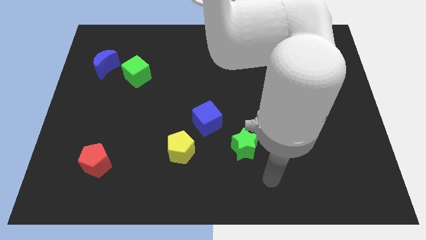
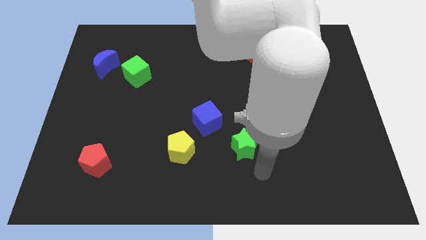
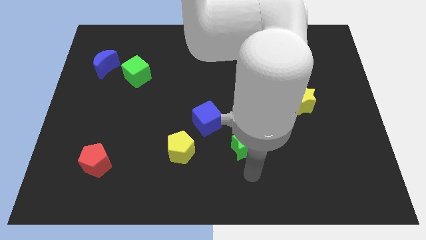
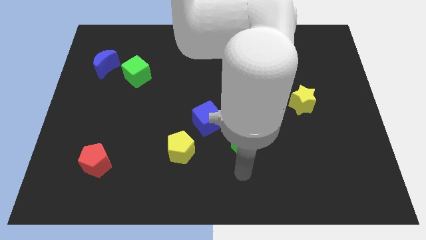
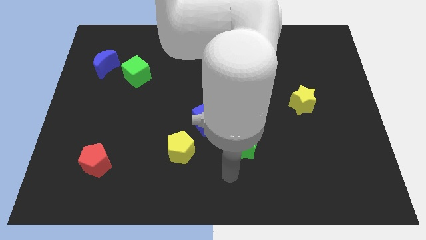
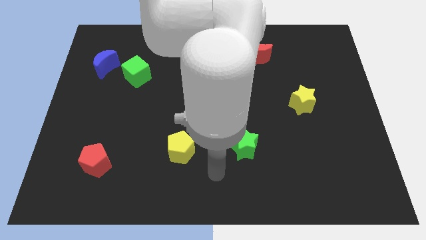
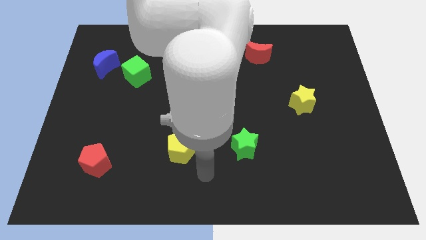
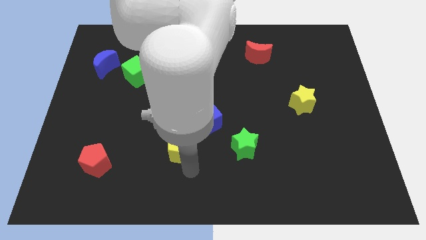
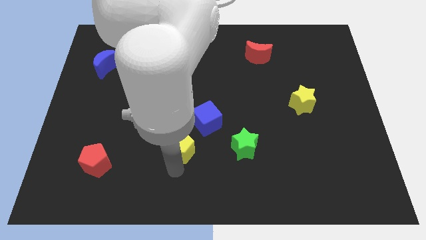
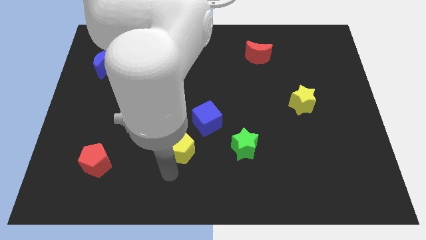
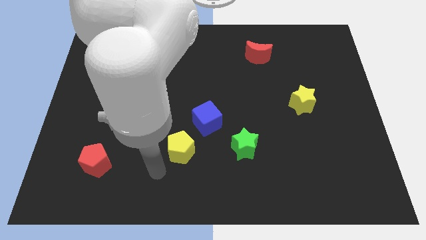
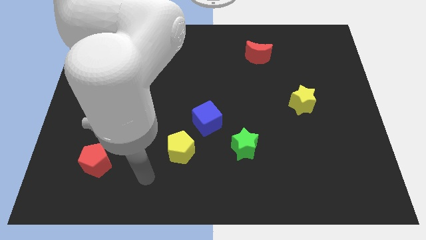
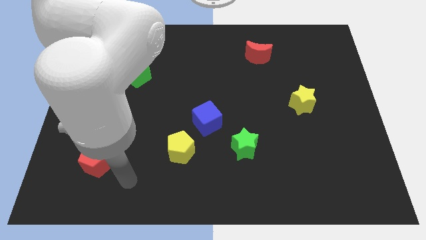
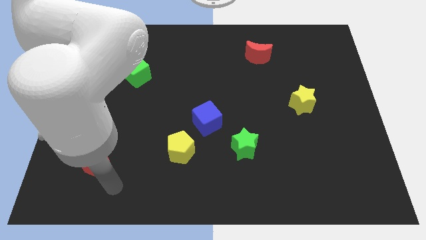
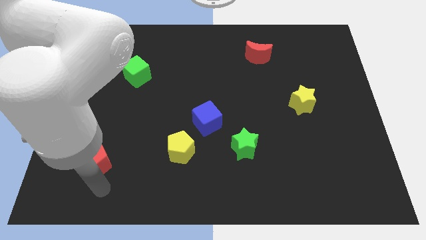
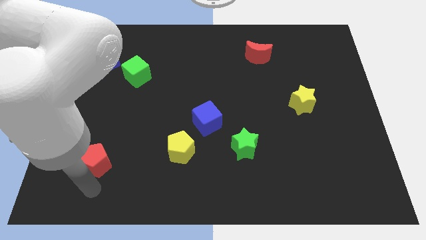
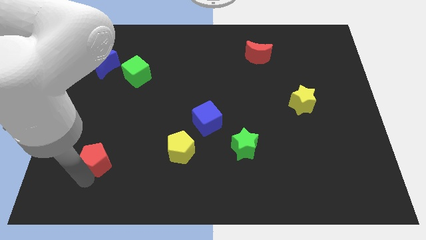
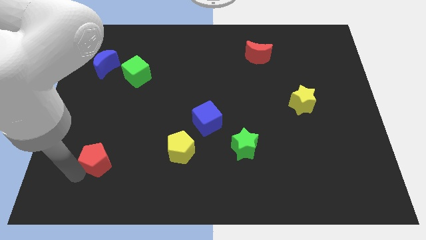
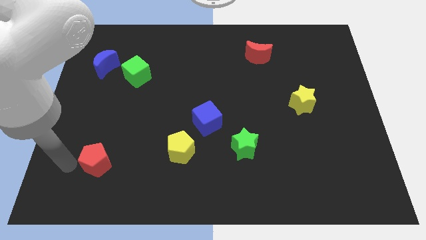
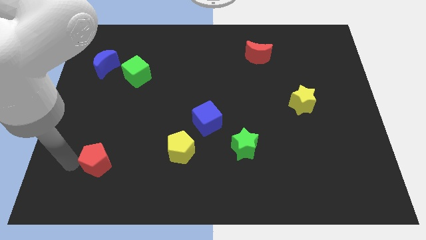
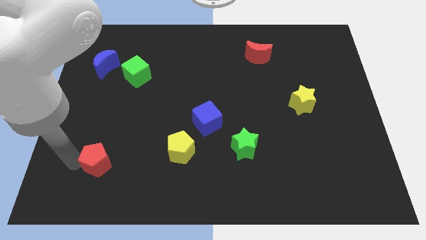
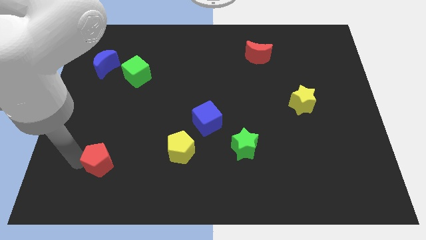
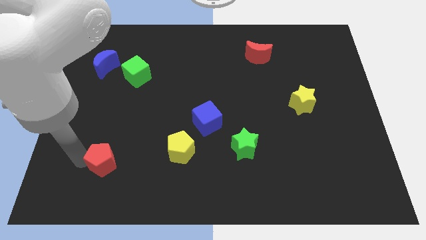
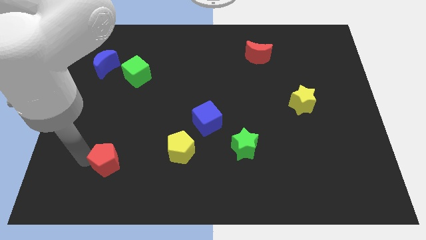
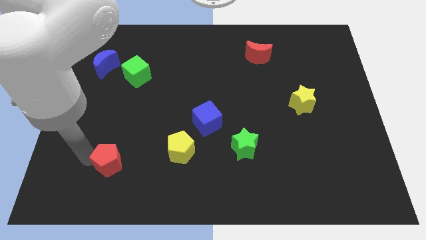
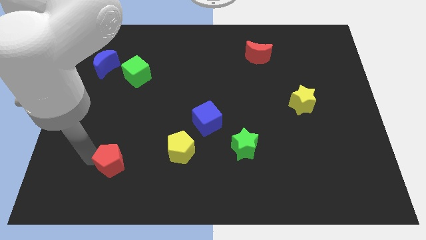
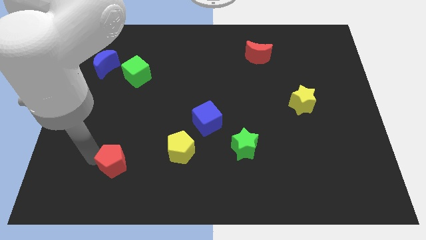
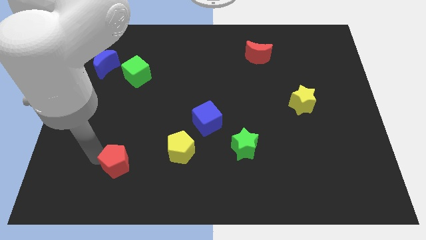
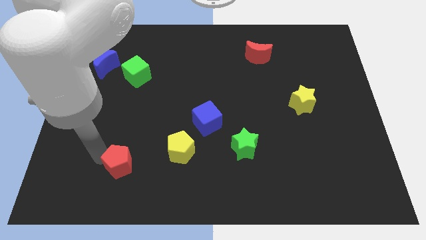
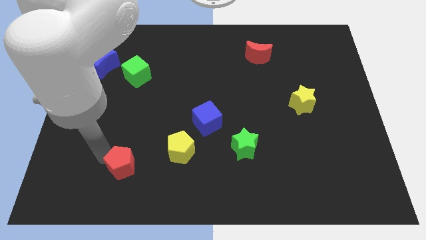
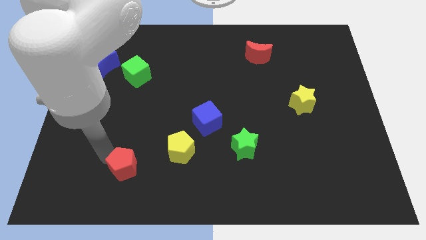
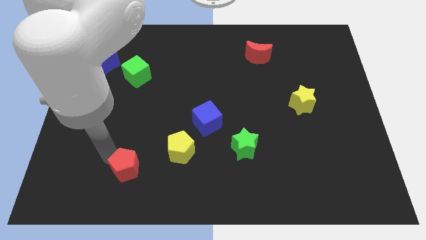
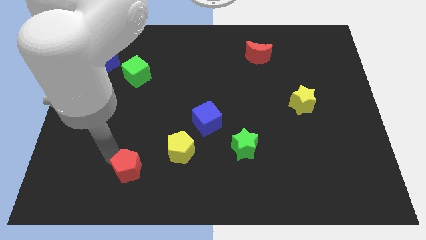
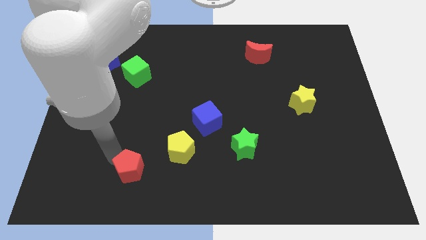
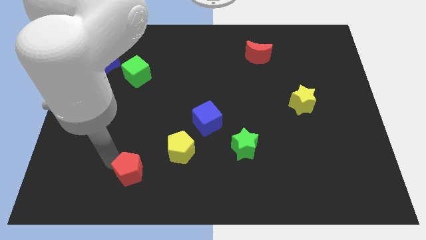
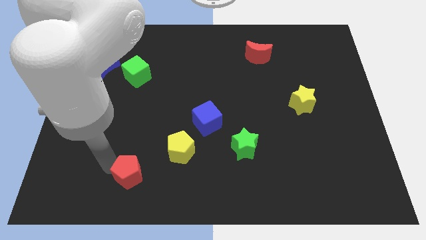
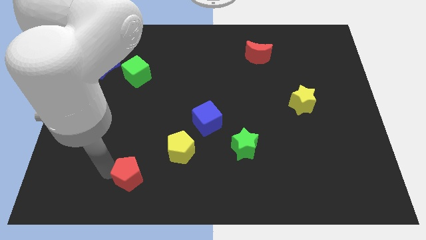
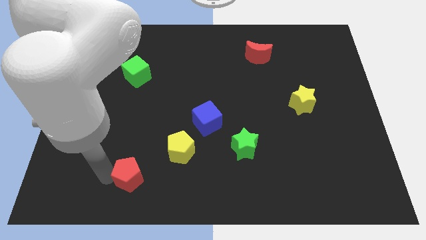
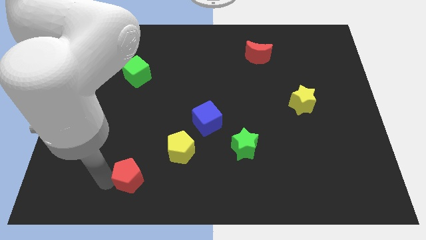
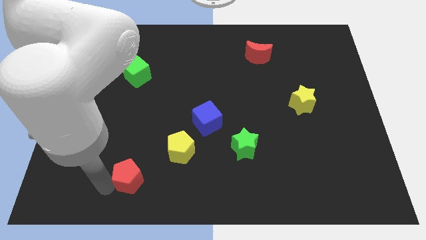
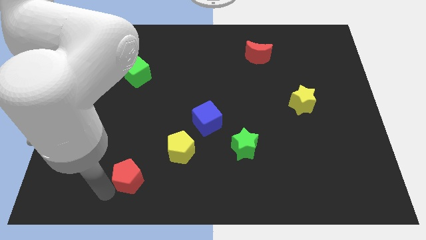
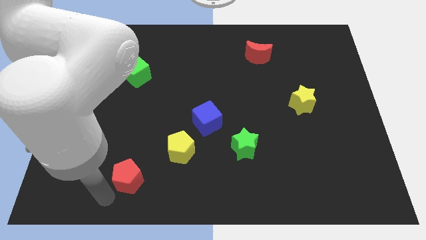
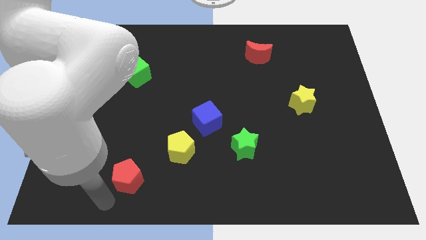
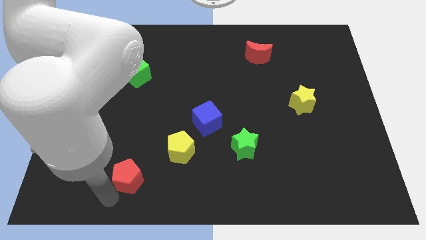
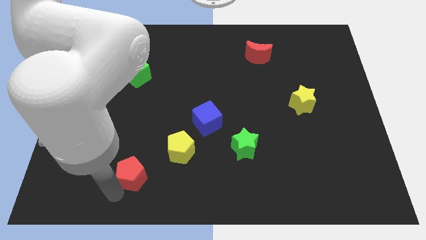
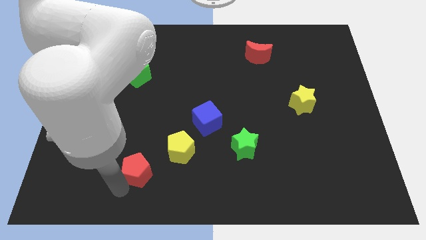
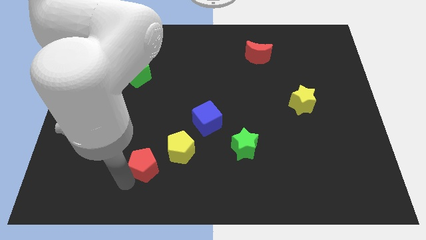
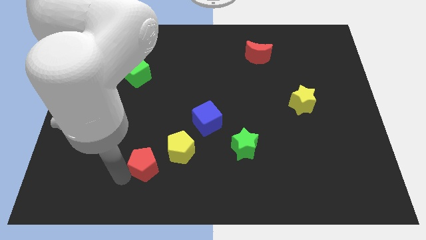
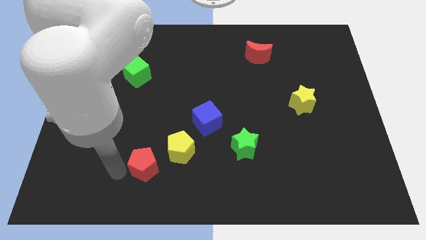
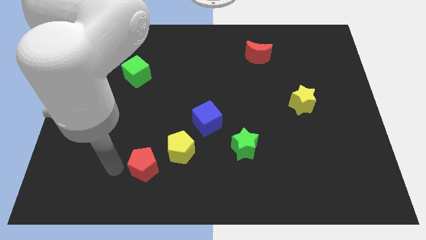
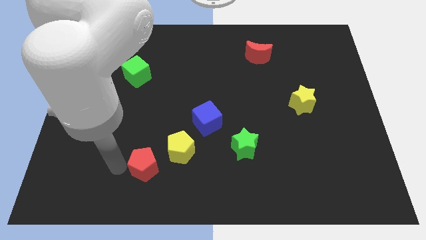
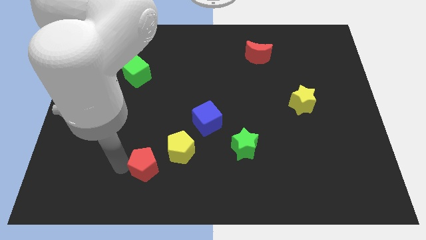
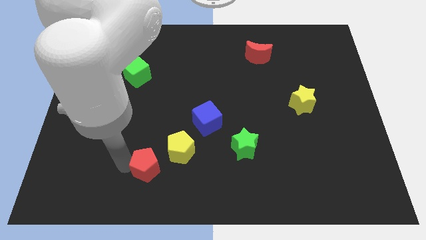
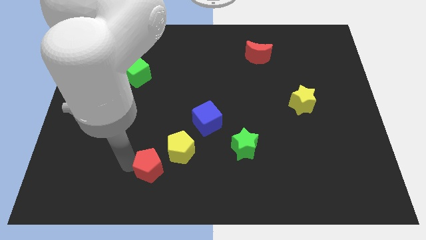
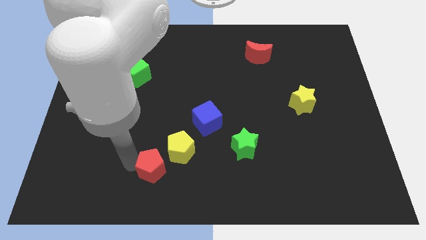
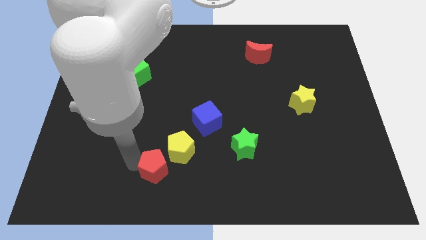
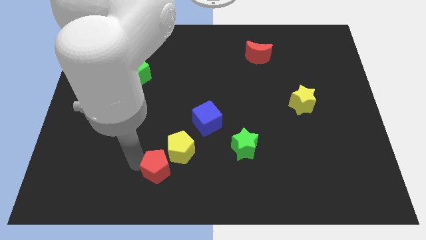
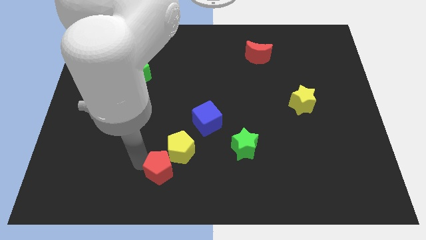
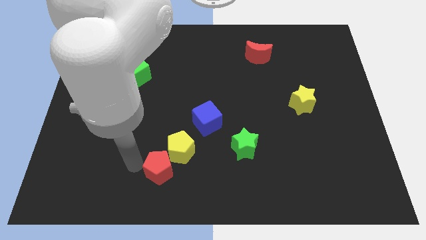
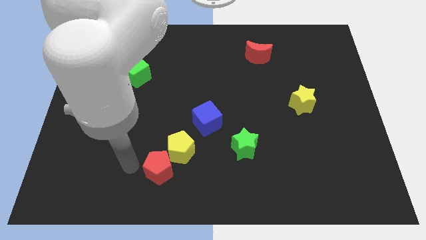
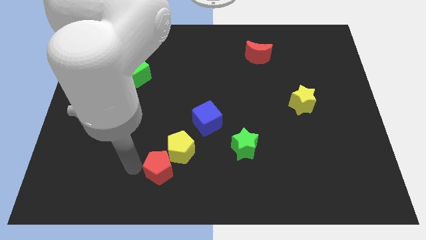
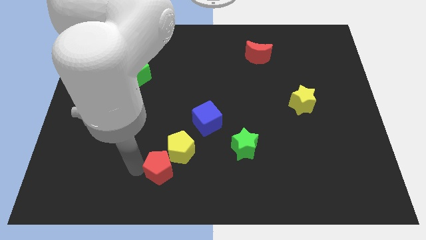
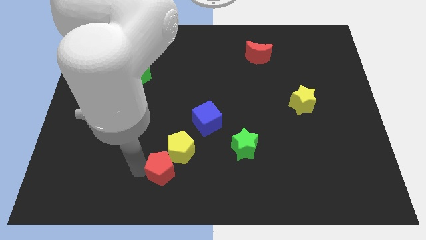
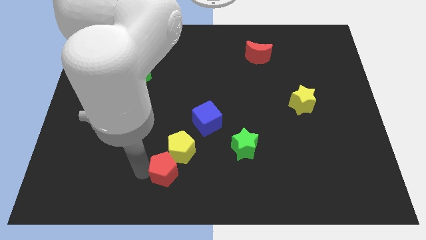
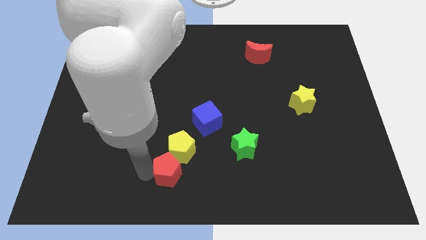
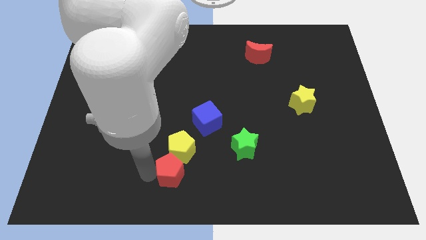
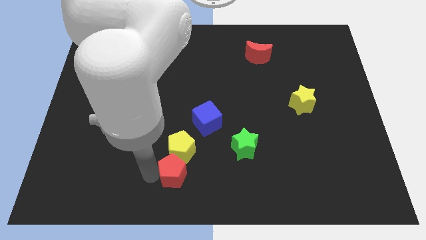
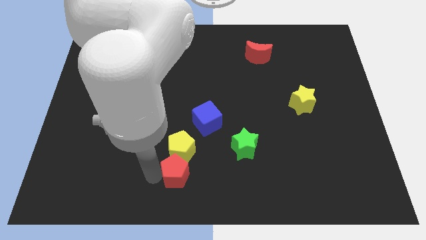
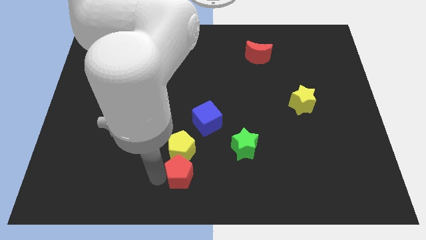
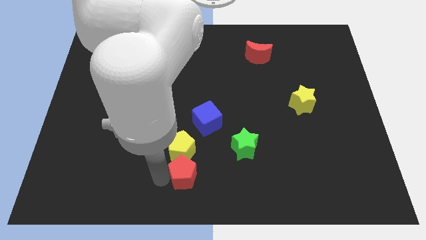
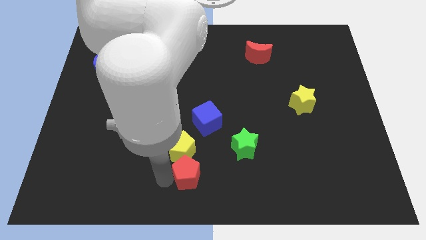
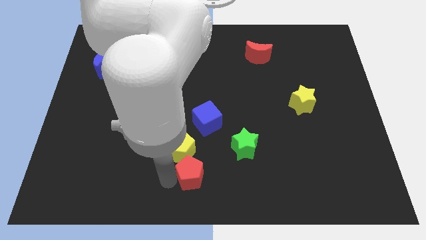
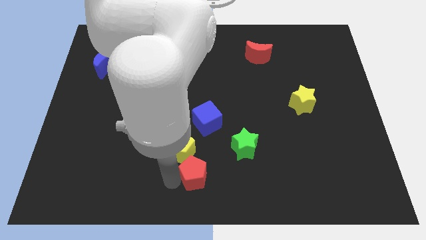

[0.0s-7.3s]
push the red pentagon right

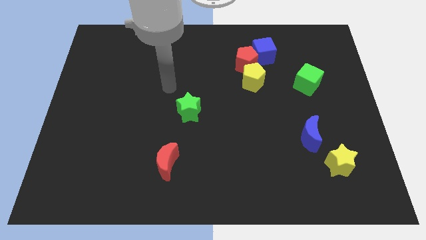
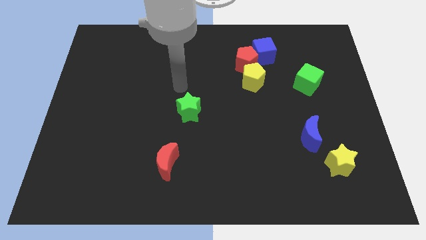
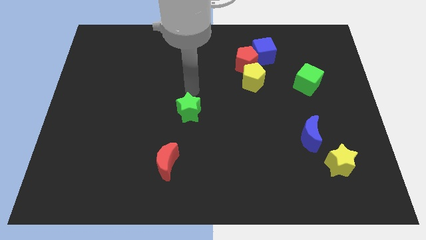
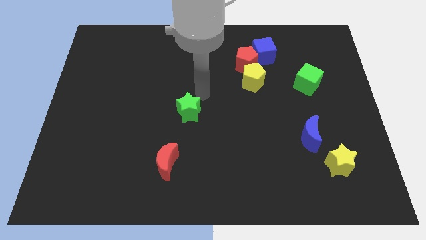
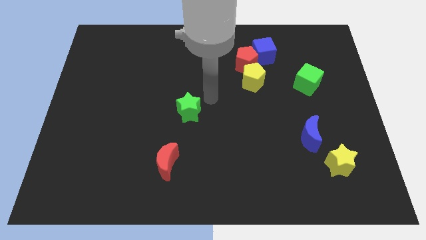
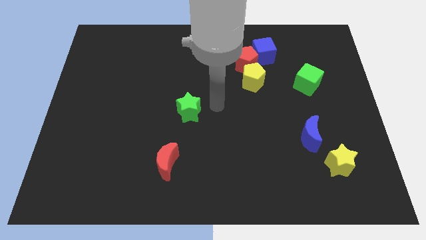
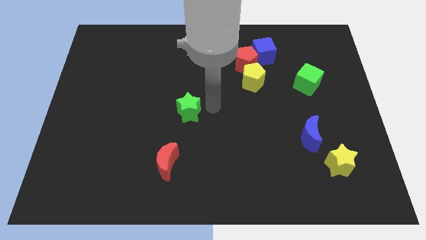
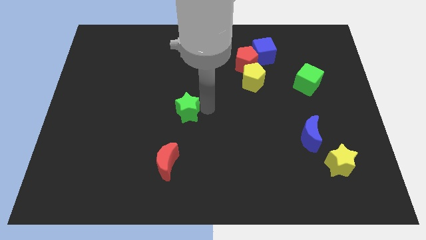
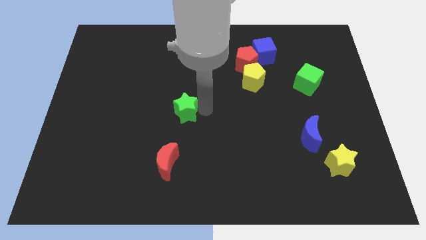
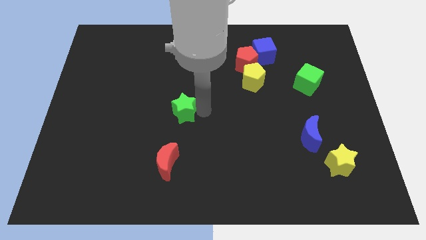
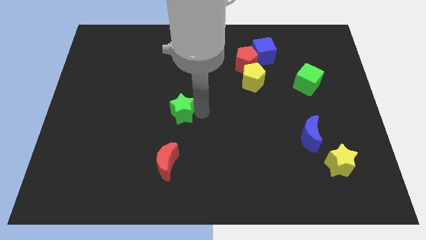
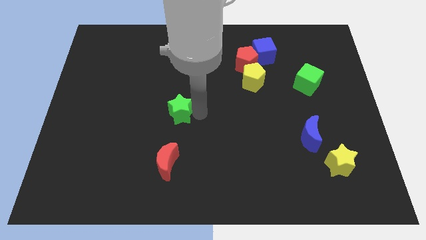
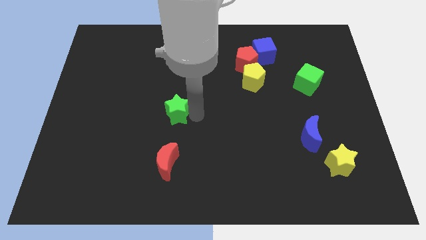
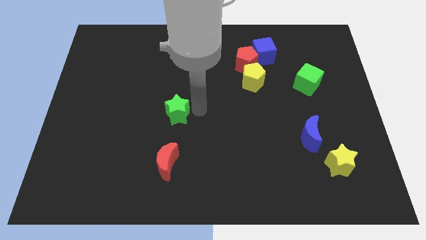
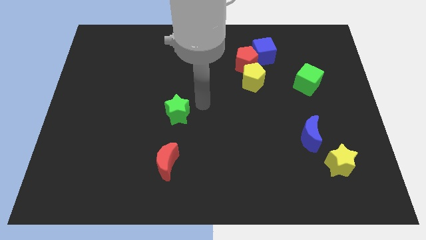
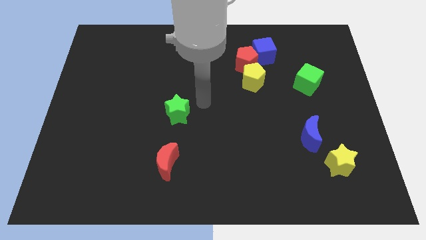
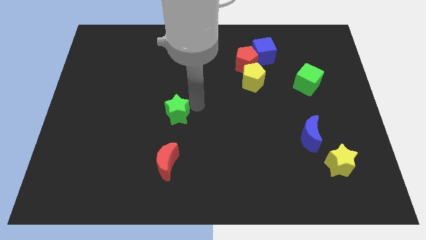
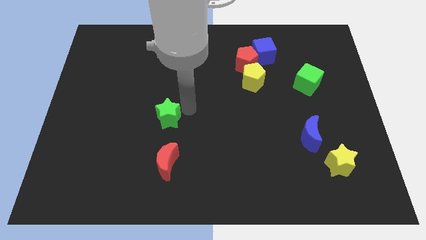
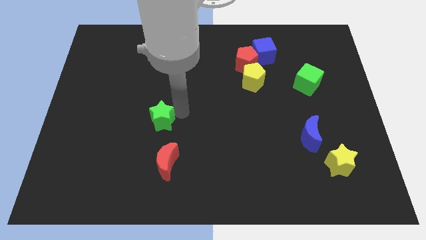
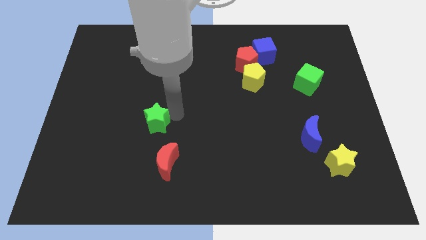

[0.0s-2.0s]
slightly push the green star down and left diagonally
